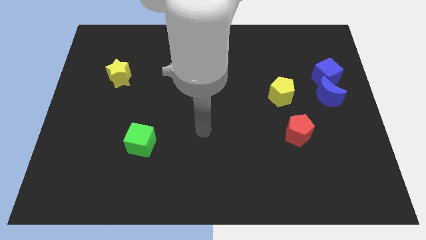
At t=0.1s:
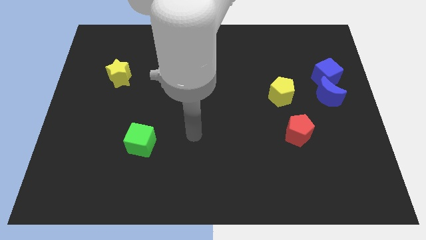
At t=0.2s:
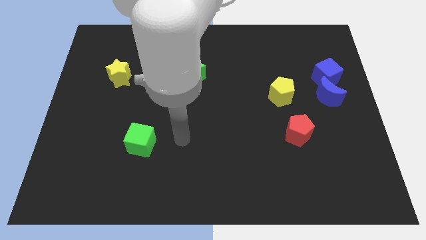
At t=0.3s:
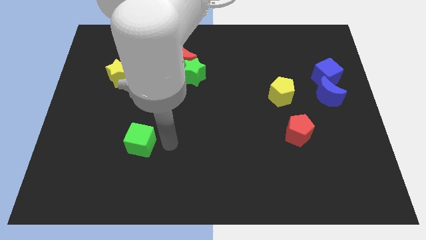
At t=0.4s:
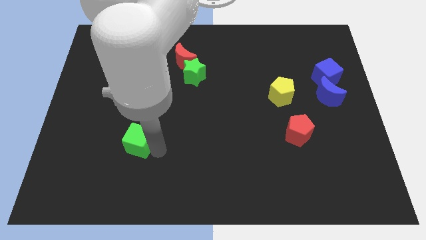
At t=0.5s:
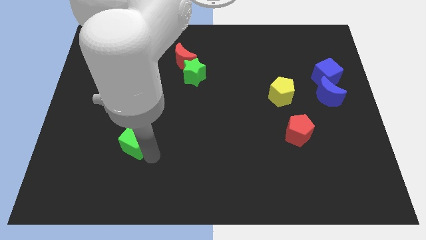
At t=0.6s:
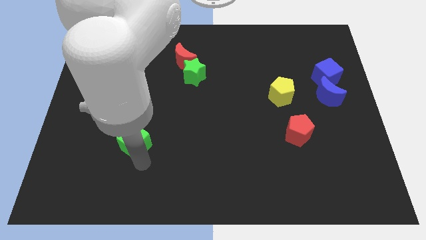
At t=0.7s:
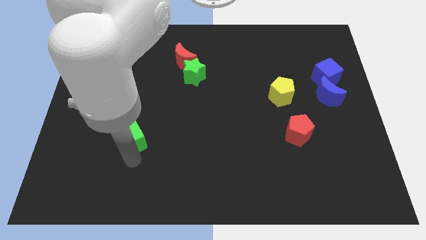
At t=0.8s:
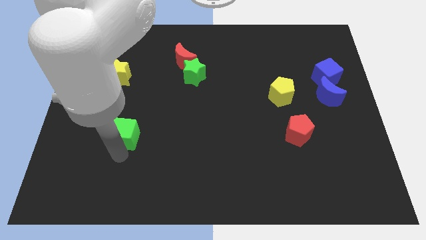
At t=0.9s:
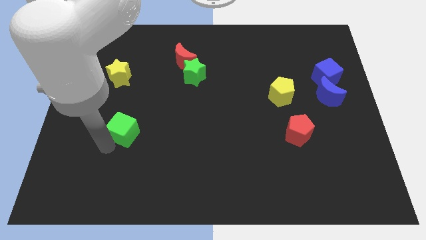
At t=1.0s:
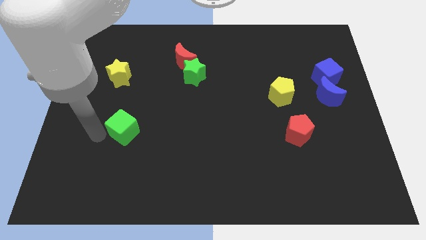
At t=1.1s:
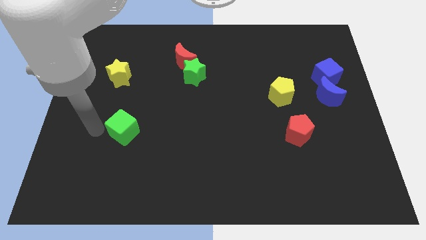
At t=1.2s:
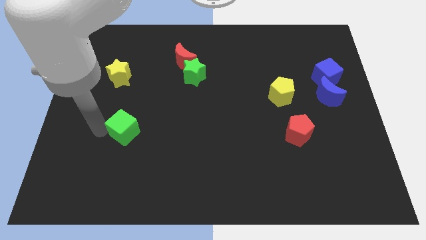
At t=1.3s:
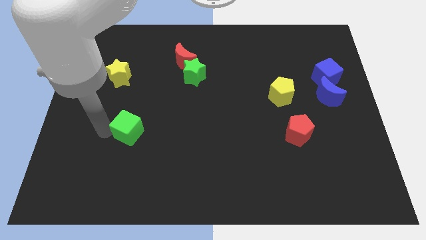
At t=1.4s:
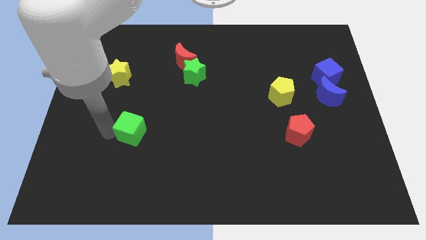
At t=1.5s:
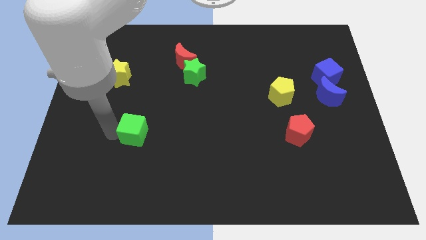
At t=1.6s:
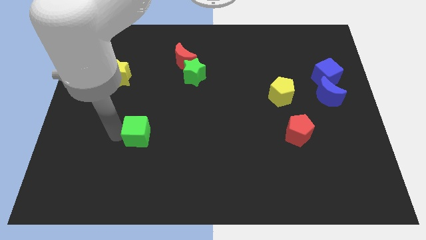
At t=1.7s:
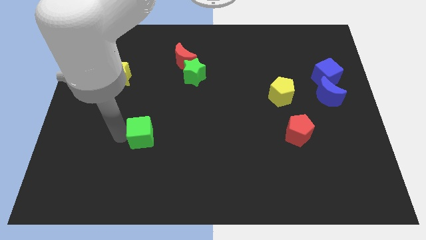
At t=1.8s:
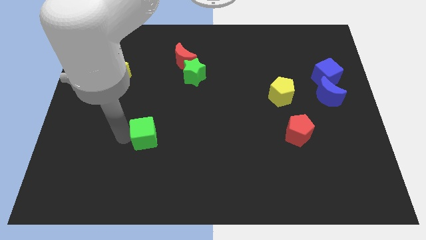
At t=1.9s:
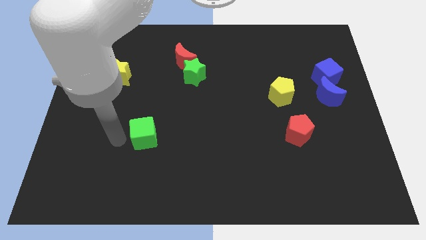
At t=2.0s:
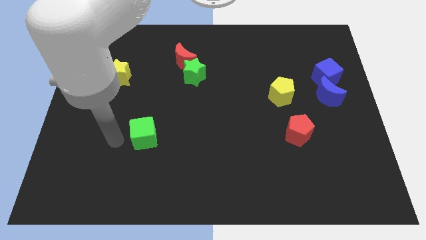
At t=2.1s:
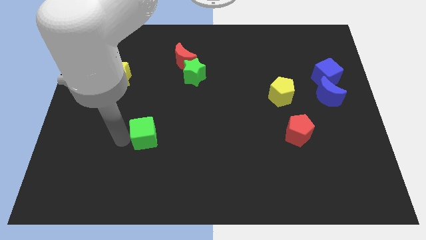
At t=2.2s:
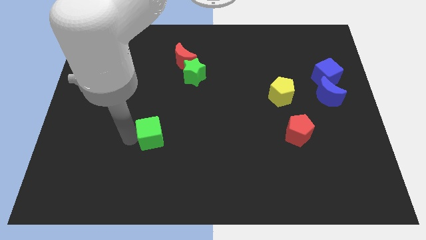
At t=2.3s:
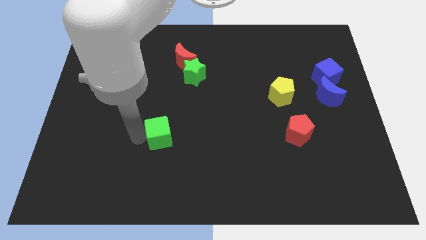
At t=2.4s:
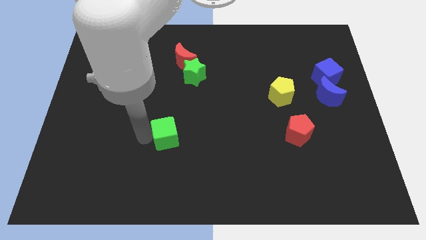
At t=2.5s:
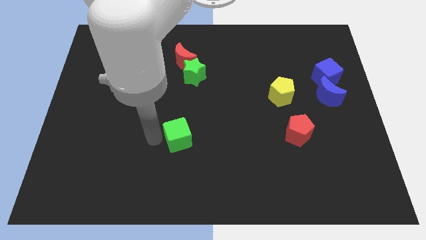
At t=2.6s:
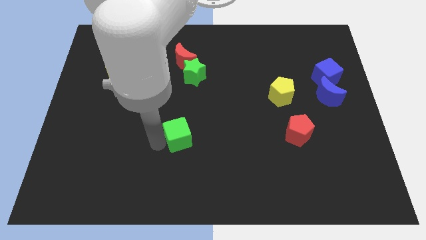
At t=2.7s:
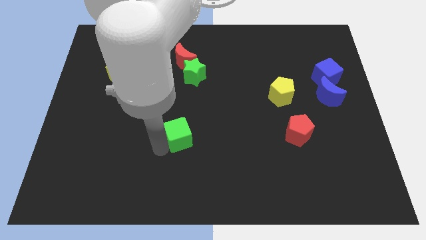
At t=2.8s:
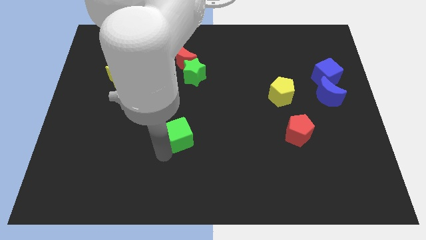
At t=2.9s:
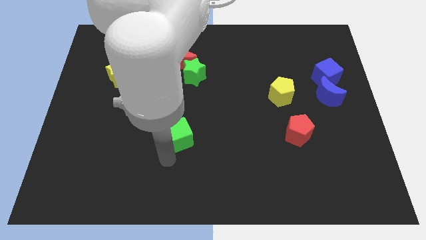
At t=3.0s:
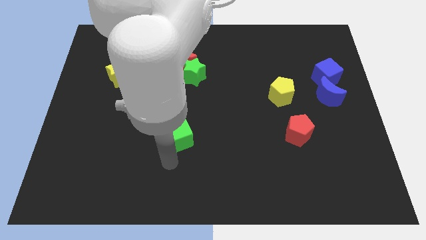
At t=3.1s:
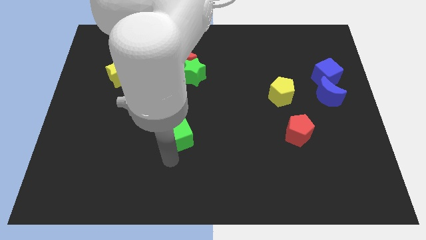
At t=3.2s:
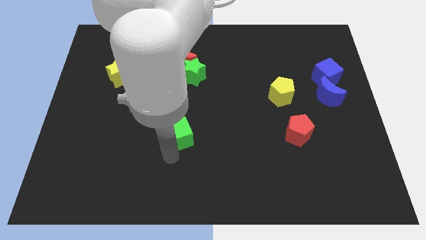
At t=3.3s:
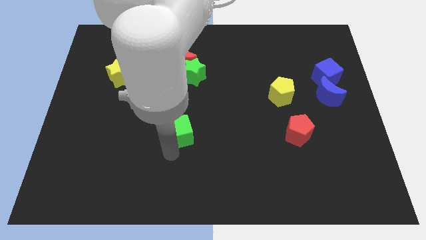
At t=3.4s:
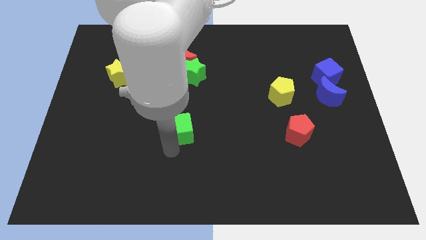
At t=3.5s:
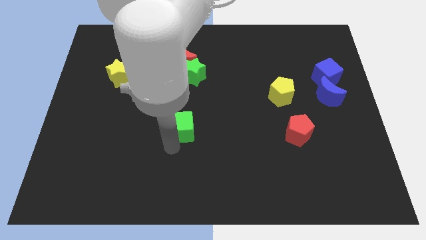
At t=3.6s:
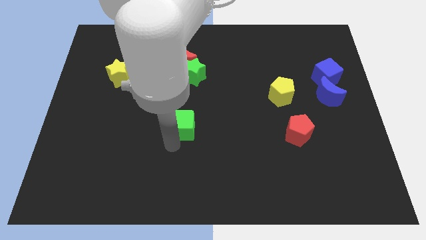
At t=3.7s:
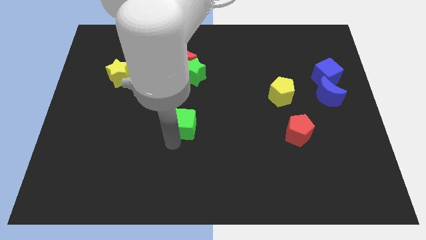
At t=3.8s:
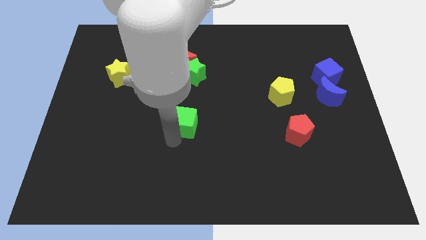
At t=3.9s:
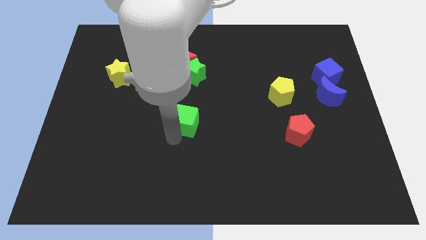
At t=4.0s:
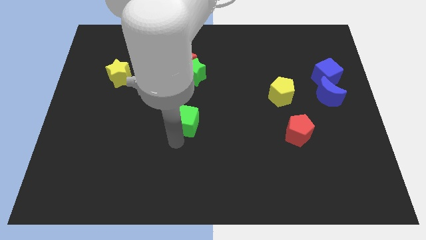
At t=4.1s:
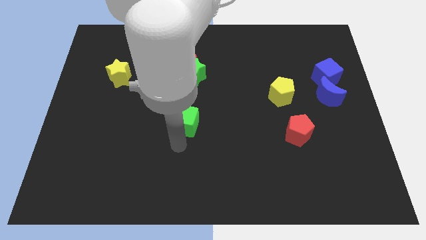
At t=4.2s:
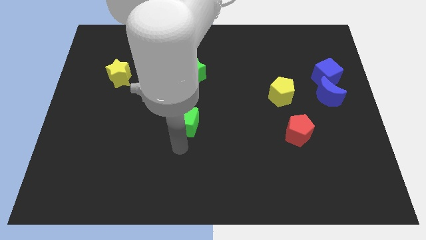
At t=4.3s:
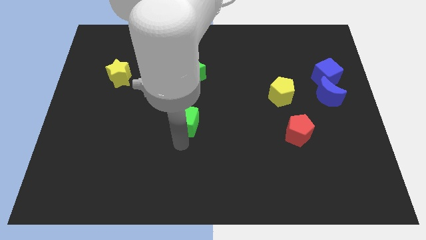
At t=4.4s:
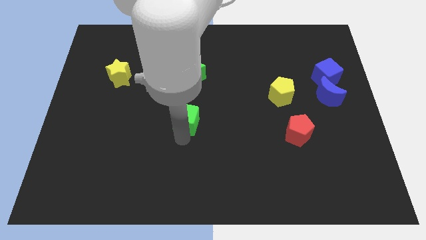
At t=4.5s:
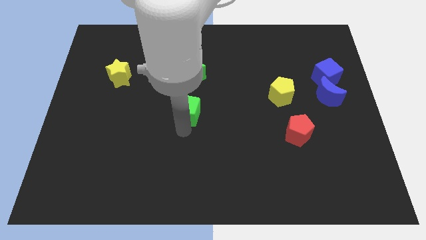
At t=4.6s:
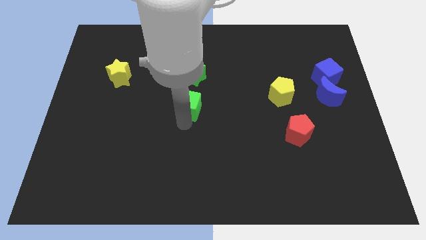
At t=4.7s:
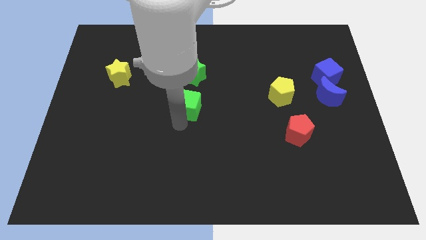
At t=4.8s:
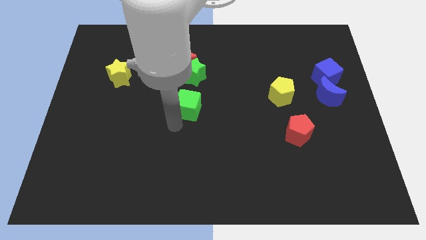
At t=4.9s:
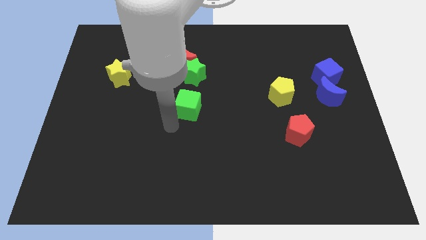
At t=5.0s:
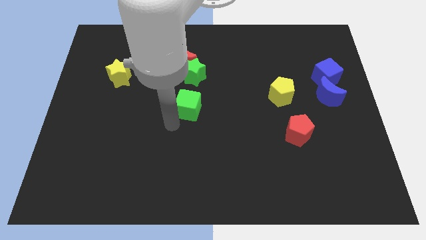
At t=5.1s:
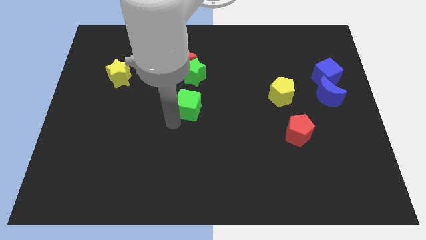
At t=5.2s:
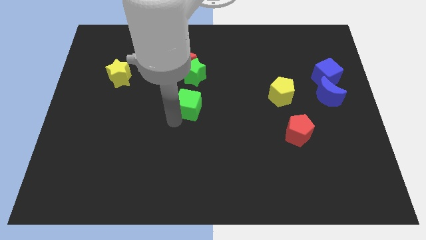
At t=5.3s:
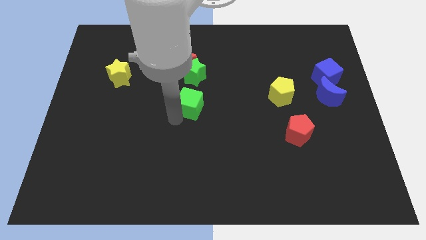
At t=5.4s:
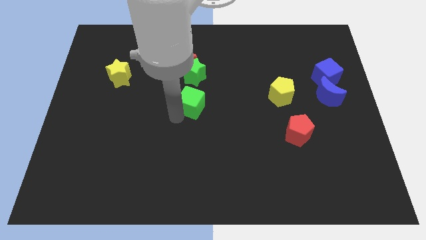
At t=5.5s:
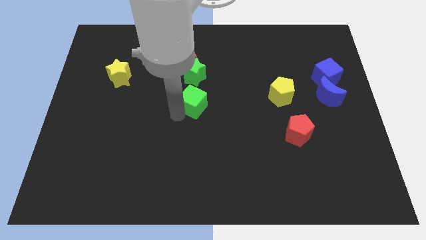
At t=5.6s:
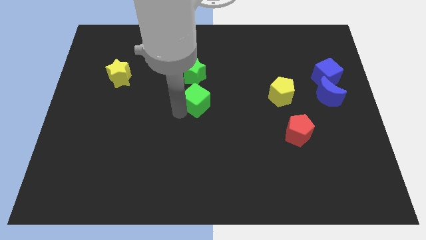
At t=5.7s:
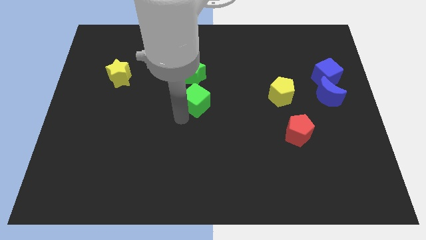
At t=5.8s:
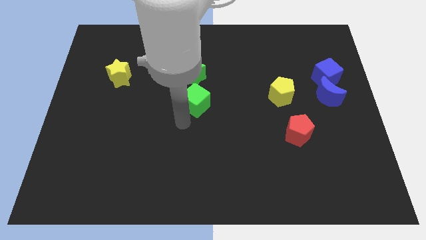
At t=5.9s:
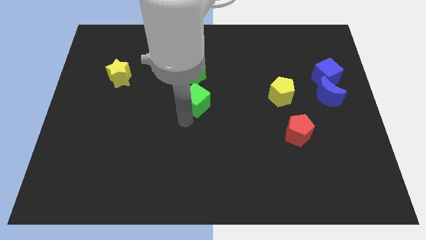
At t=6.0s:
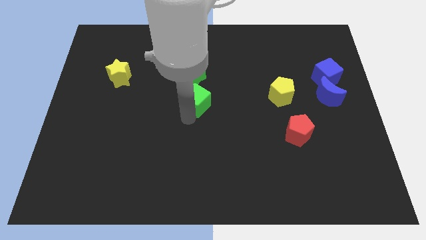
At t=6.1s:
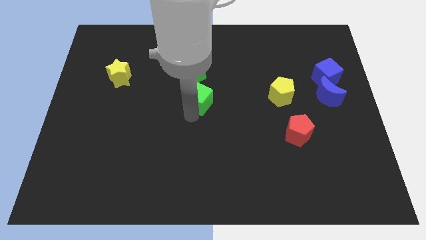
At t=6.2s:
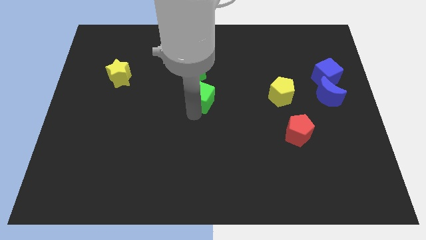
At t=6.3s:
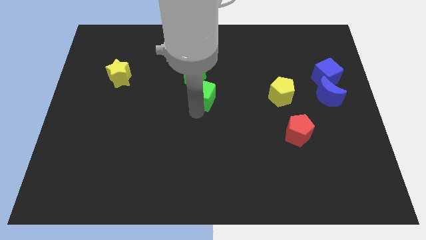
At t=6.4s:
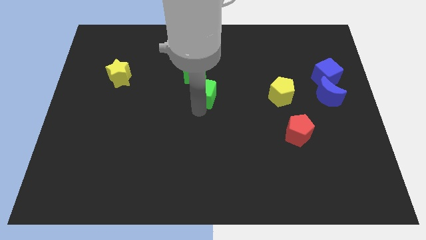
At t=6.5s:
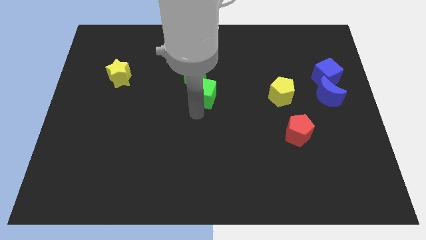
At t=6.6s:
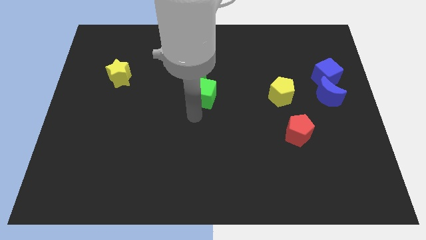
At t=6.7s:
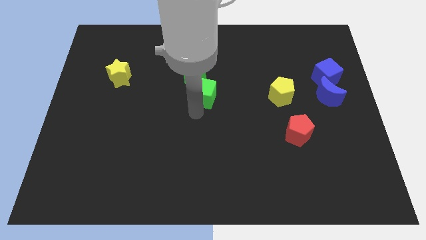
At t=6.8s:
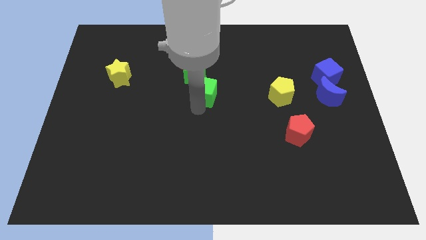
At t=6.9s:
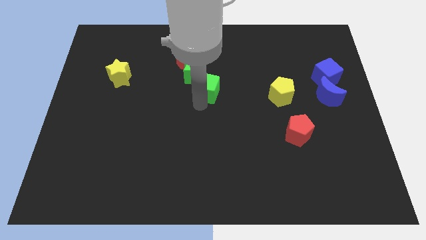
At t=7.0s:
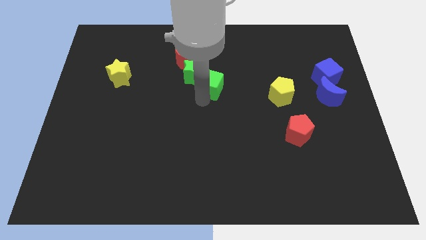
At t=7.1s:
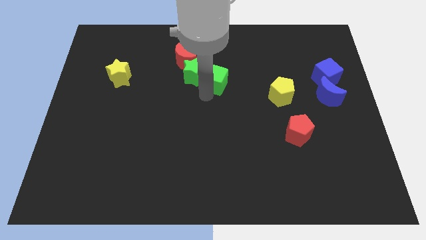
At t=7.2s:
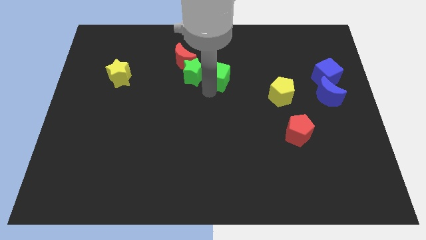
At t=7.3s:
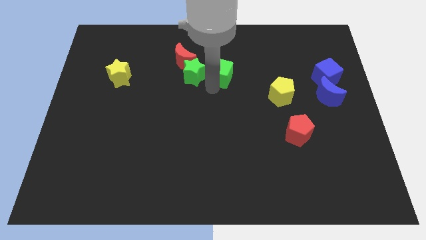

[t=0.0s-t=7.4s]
put the green cube to the top right side of the green star
